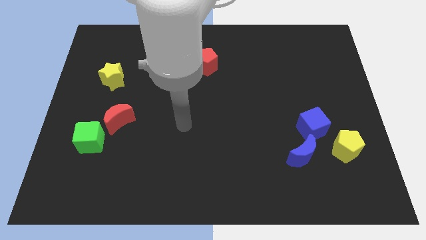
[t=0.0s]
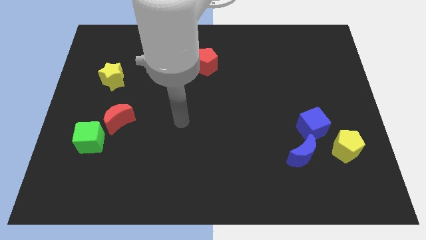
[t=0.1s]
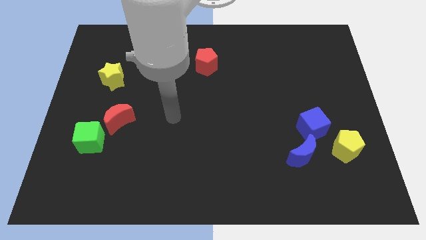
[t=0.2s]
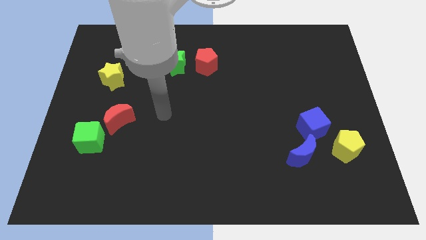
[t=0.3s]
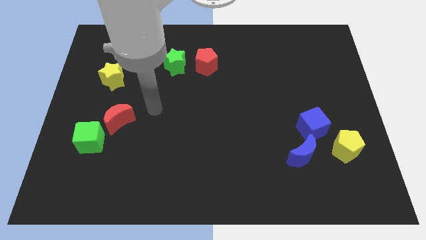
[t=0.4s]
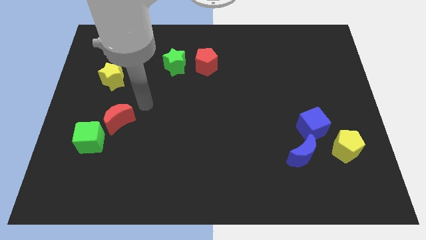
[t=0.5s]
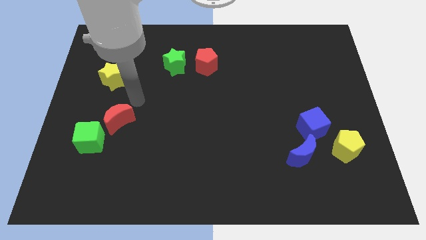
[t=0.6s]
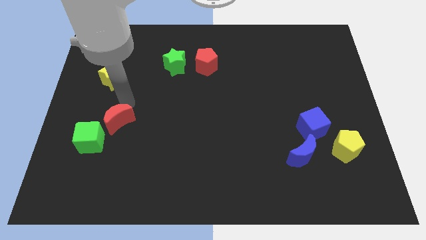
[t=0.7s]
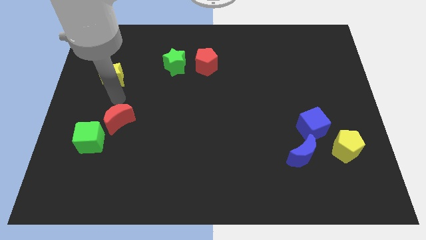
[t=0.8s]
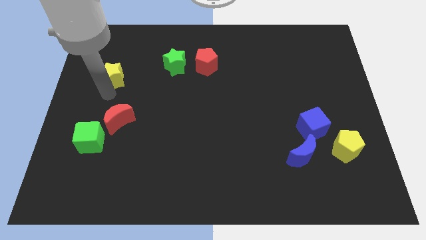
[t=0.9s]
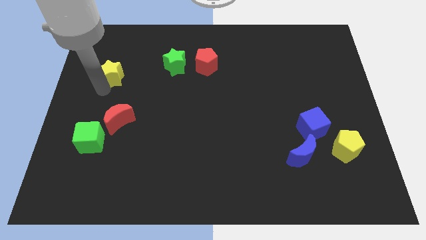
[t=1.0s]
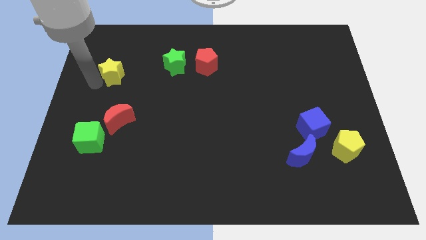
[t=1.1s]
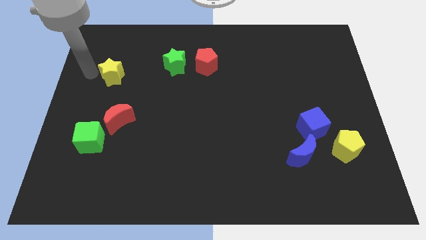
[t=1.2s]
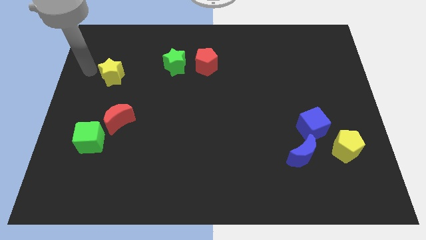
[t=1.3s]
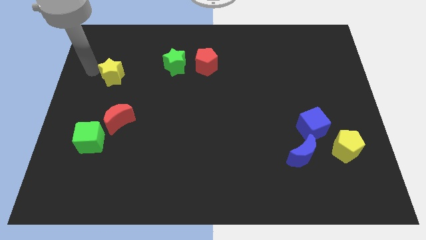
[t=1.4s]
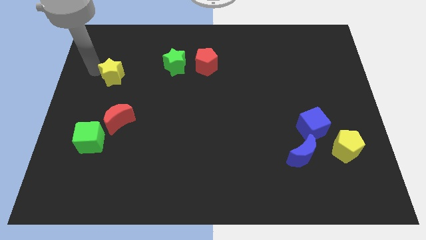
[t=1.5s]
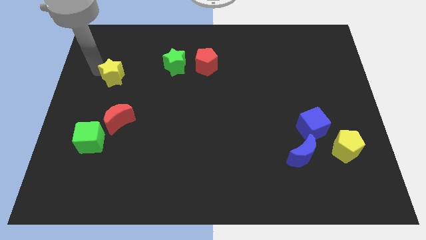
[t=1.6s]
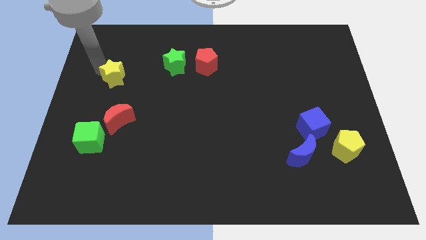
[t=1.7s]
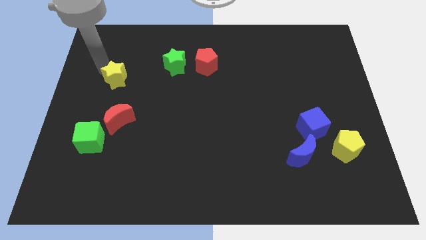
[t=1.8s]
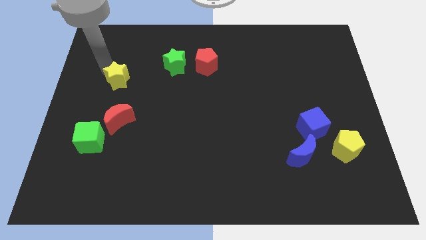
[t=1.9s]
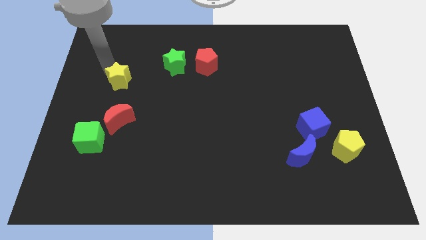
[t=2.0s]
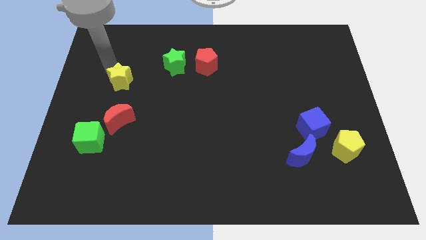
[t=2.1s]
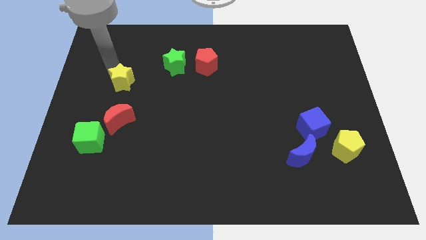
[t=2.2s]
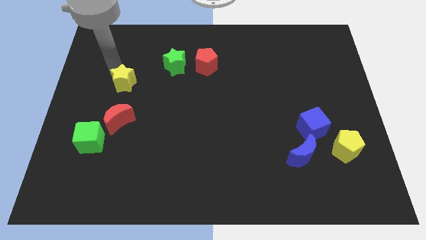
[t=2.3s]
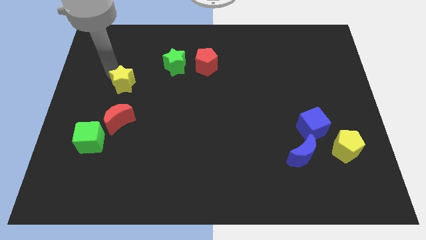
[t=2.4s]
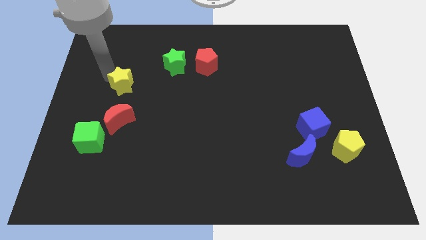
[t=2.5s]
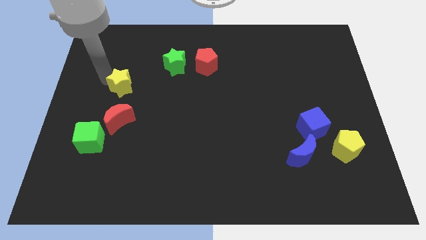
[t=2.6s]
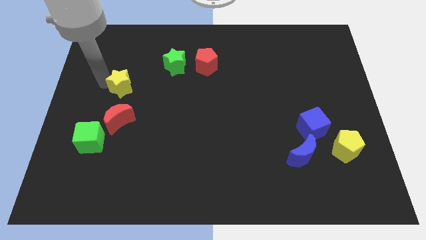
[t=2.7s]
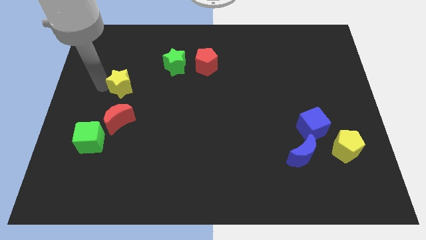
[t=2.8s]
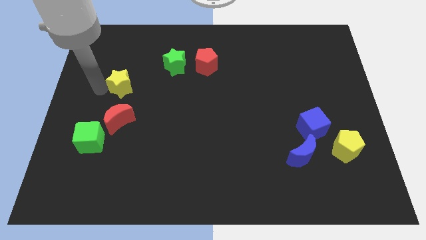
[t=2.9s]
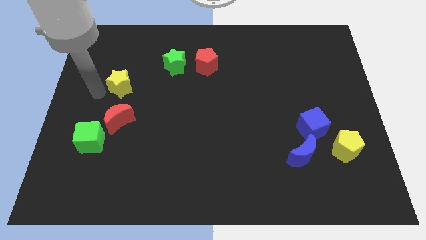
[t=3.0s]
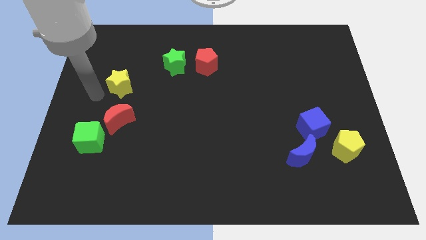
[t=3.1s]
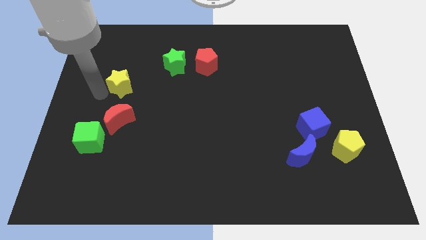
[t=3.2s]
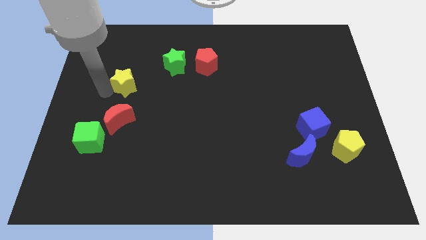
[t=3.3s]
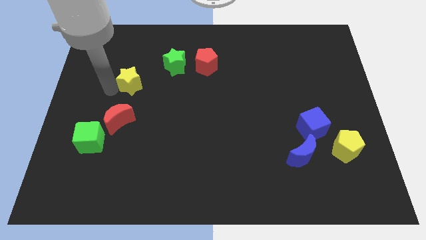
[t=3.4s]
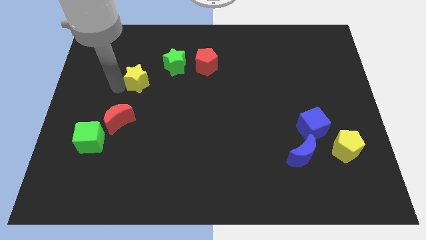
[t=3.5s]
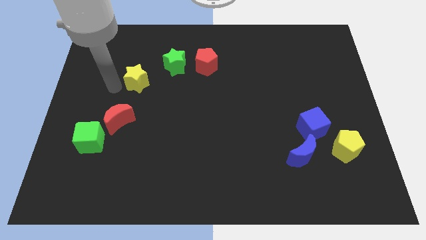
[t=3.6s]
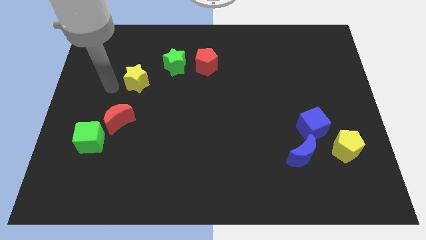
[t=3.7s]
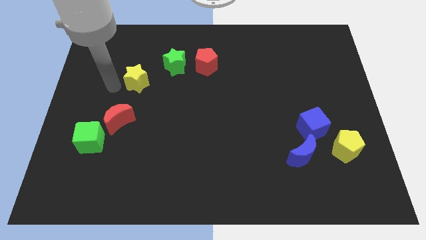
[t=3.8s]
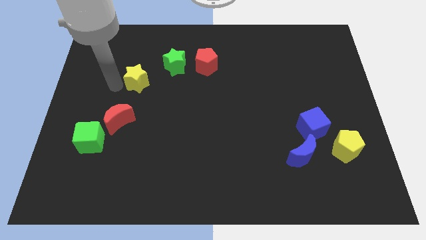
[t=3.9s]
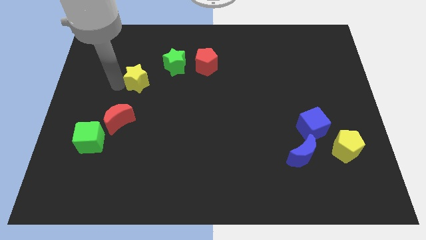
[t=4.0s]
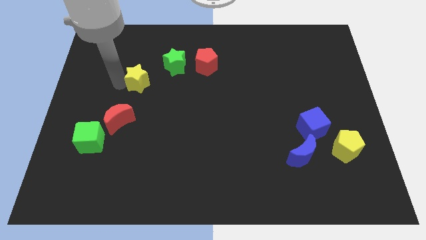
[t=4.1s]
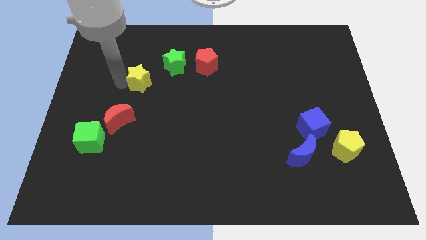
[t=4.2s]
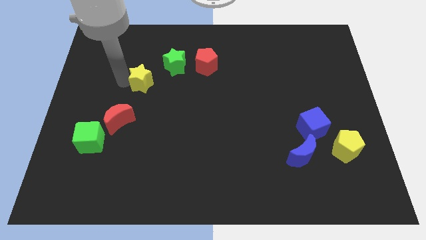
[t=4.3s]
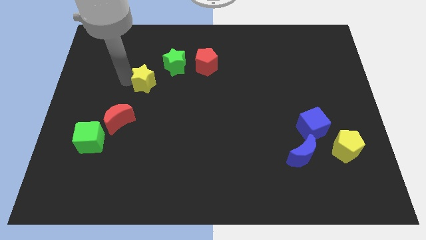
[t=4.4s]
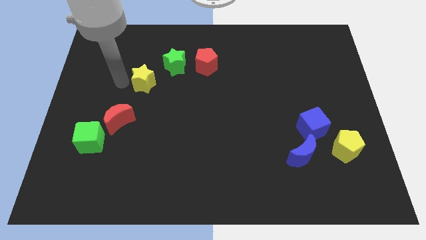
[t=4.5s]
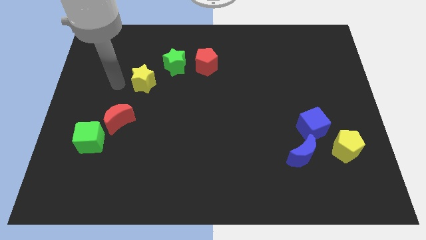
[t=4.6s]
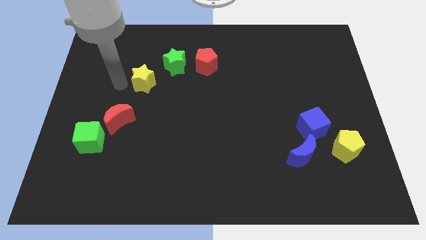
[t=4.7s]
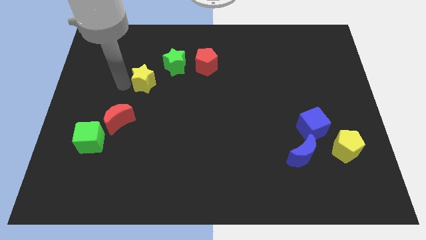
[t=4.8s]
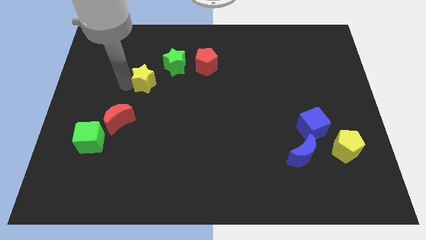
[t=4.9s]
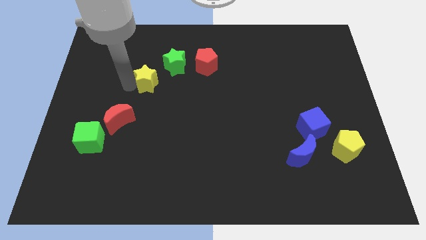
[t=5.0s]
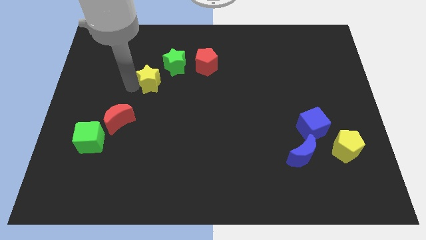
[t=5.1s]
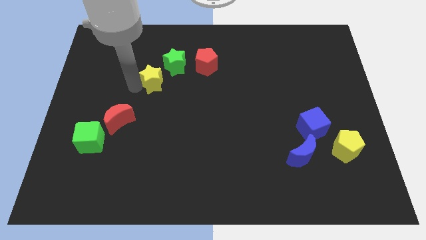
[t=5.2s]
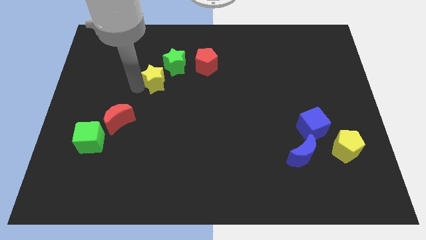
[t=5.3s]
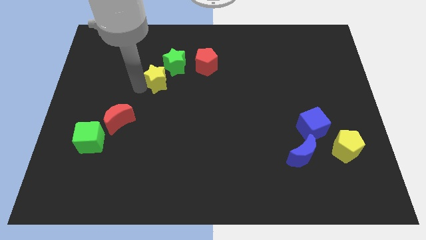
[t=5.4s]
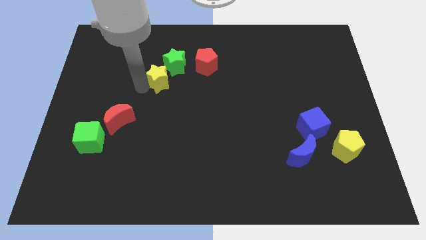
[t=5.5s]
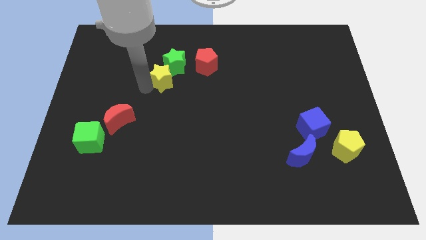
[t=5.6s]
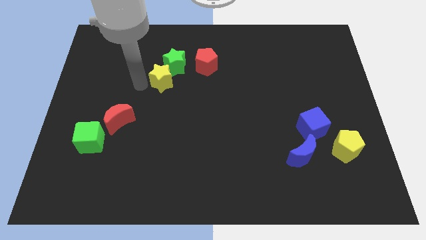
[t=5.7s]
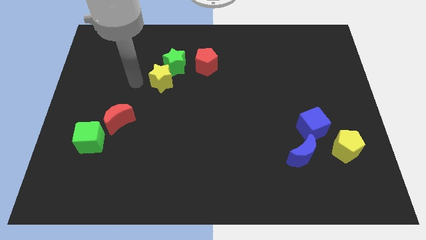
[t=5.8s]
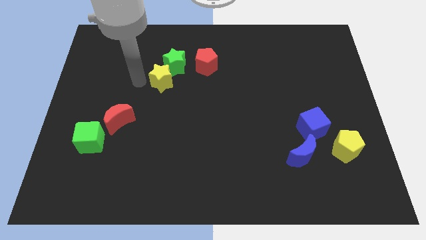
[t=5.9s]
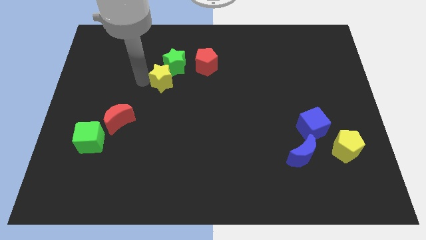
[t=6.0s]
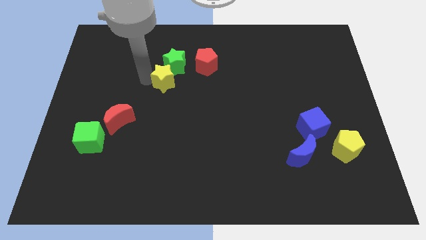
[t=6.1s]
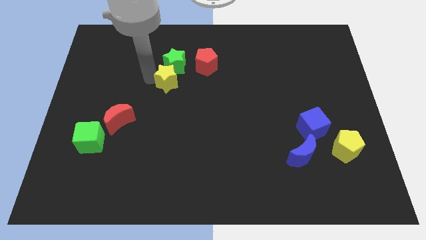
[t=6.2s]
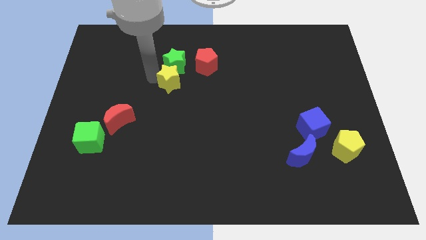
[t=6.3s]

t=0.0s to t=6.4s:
put the yellow star to the bottom right side of the green star

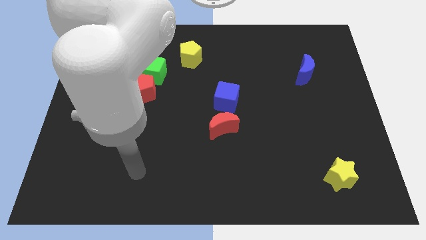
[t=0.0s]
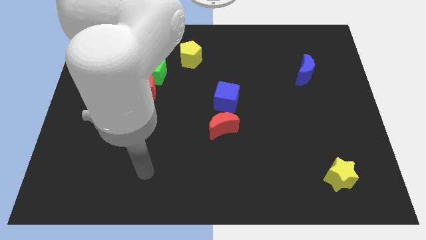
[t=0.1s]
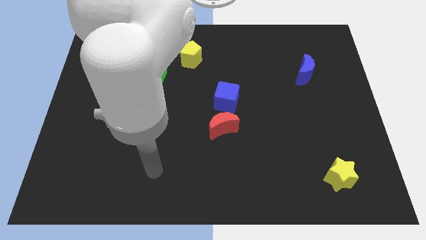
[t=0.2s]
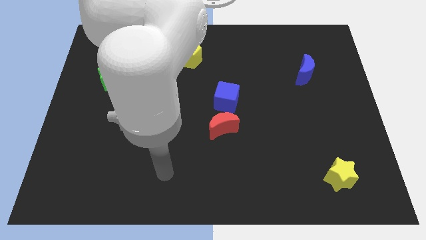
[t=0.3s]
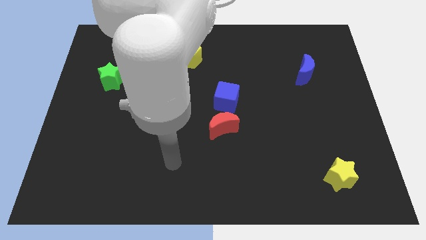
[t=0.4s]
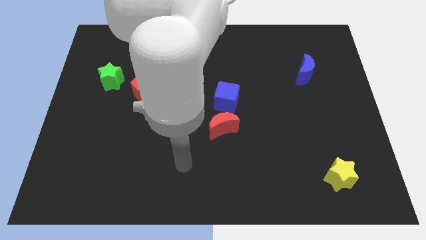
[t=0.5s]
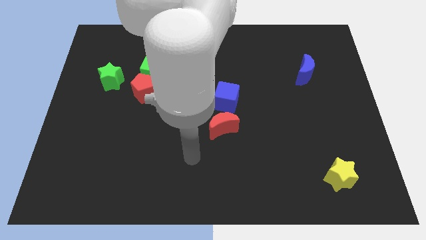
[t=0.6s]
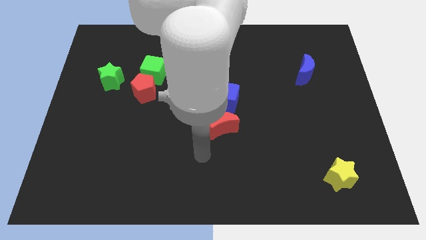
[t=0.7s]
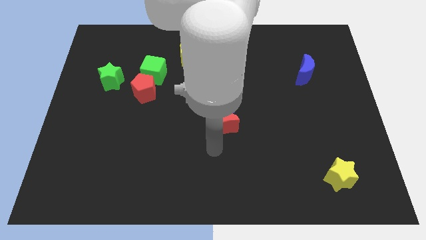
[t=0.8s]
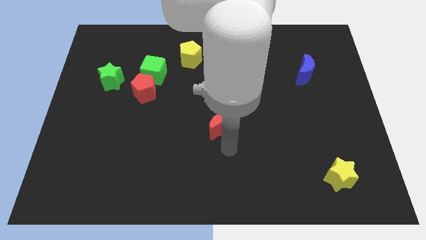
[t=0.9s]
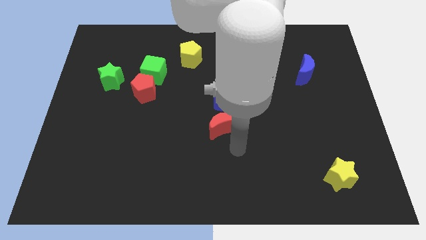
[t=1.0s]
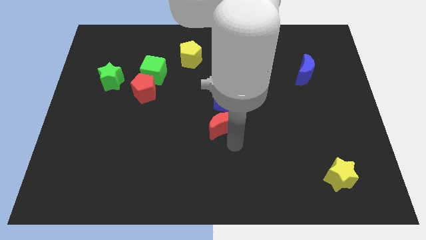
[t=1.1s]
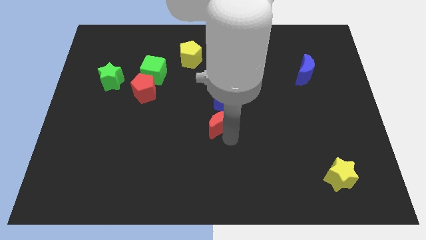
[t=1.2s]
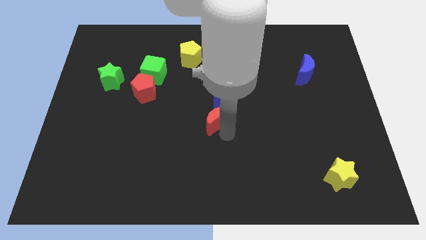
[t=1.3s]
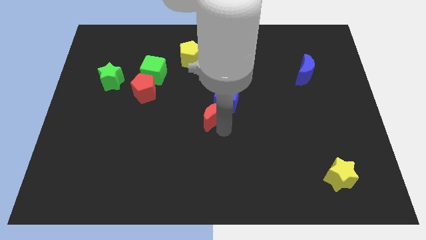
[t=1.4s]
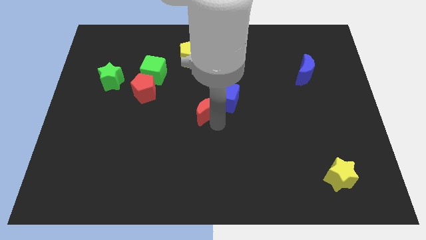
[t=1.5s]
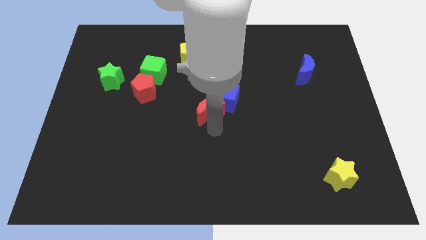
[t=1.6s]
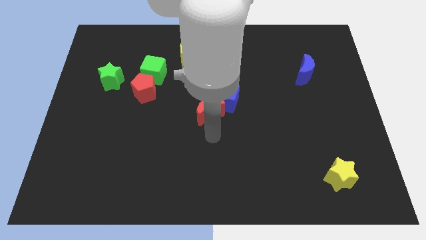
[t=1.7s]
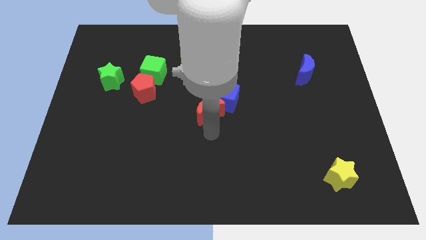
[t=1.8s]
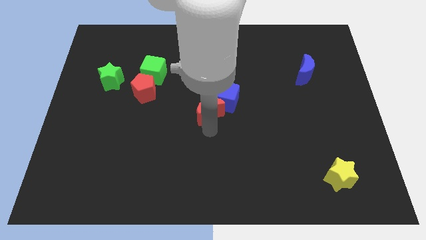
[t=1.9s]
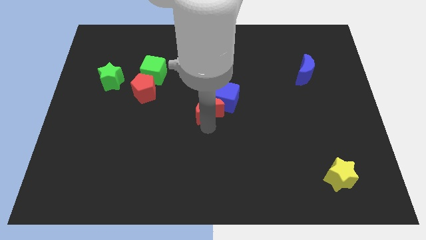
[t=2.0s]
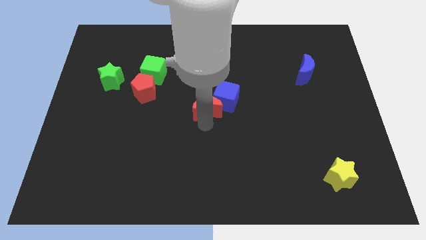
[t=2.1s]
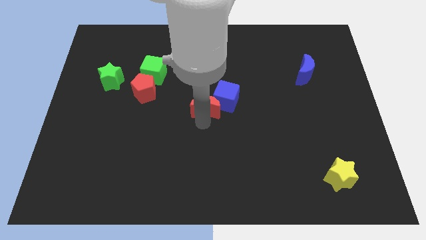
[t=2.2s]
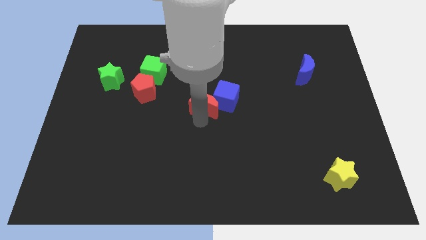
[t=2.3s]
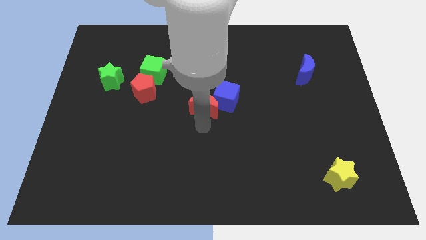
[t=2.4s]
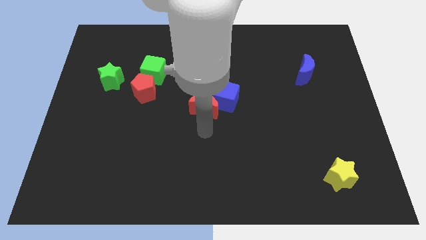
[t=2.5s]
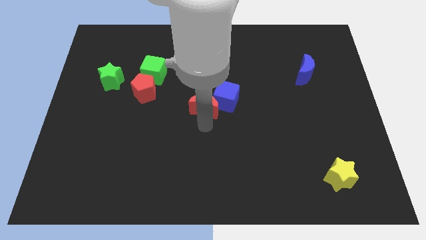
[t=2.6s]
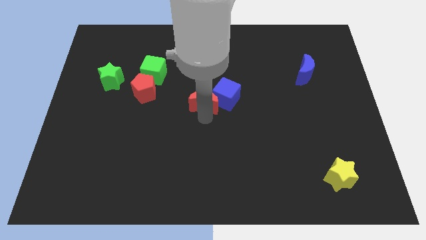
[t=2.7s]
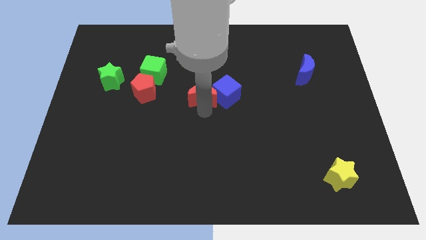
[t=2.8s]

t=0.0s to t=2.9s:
push the red moon to the top left of the blue cube
